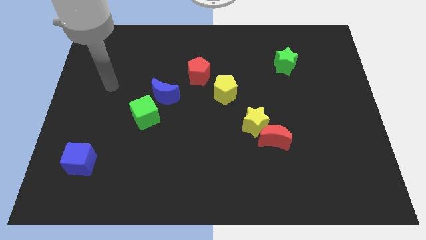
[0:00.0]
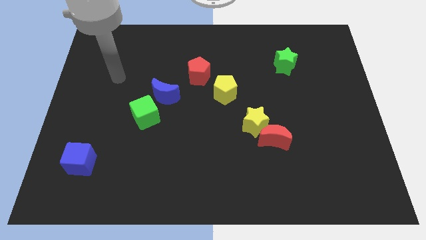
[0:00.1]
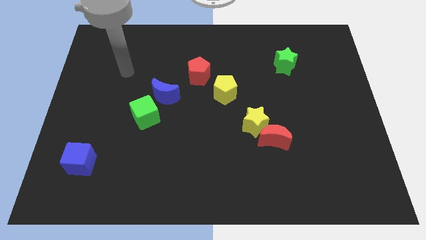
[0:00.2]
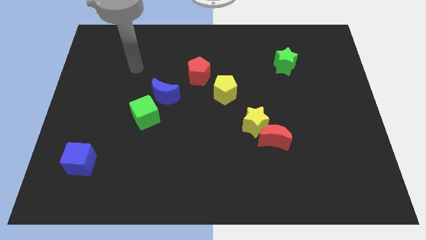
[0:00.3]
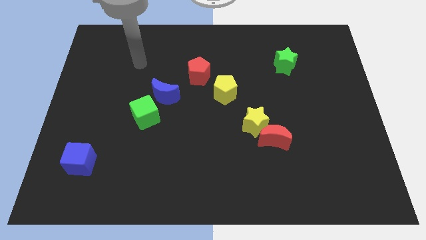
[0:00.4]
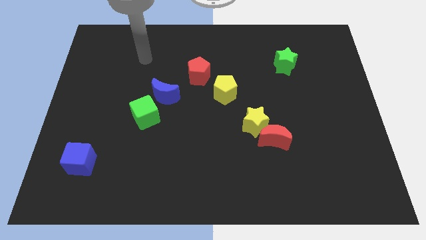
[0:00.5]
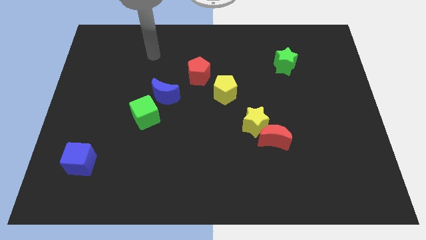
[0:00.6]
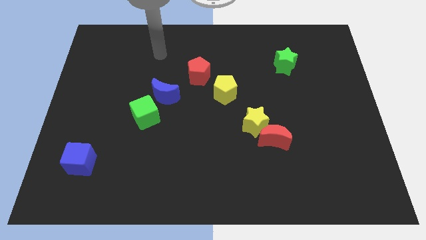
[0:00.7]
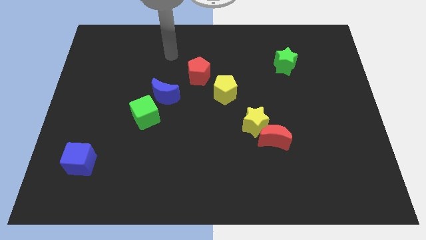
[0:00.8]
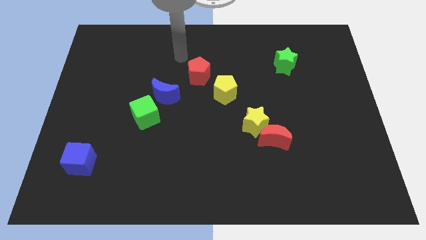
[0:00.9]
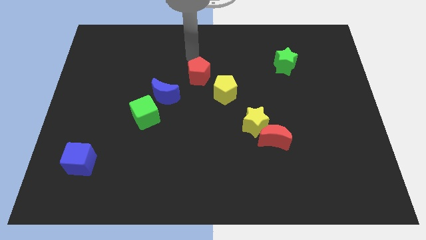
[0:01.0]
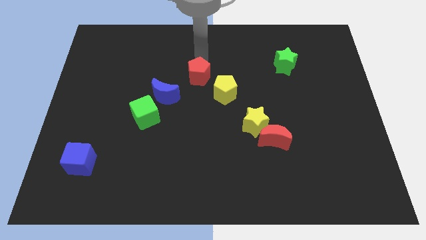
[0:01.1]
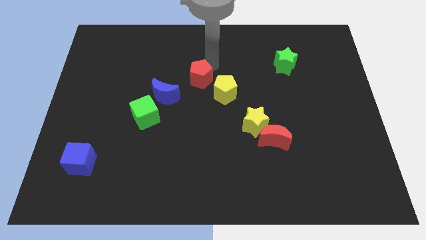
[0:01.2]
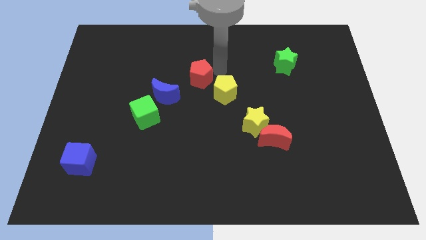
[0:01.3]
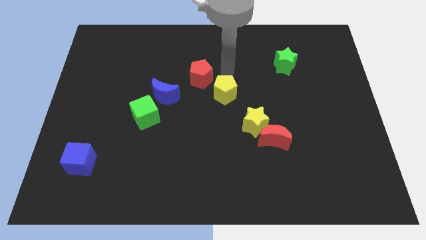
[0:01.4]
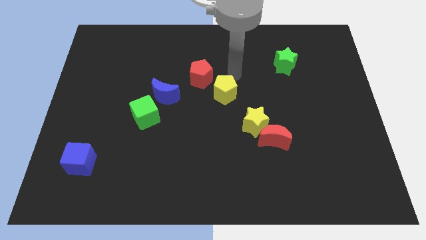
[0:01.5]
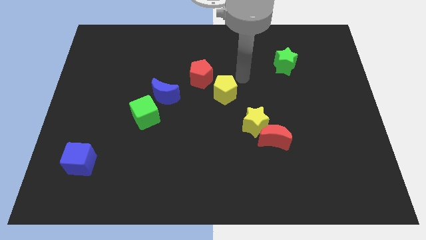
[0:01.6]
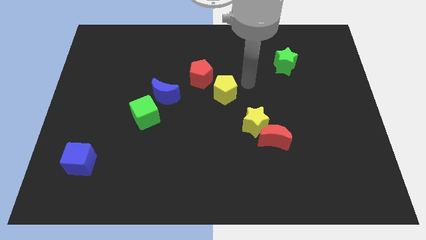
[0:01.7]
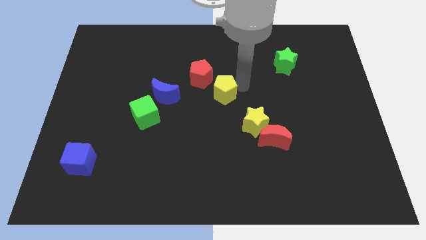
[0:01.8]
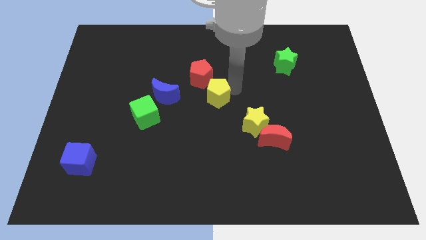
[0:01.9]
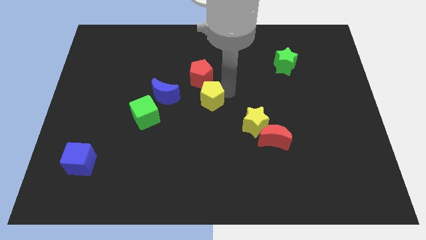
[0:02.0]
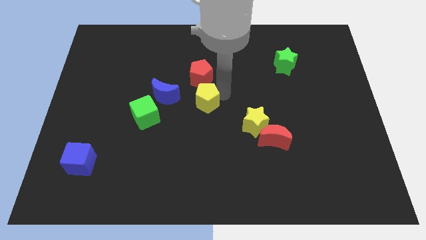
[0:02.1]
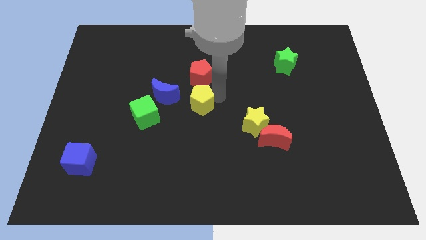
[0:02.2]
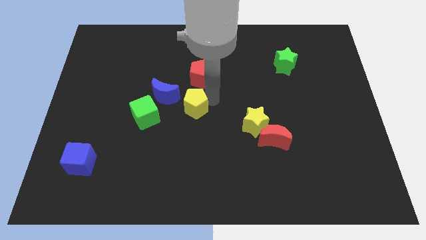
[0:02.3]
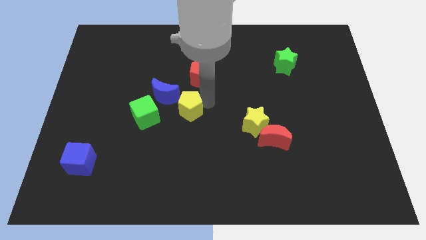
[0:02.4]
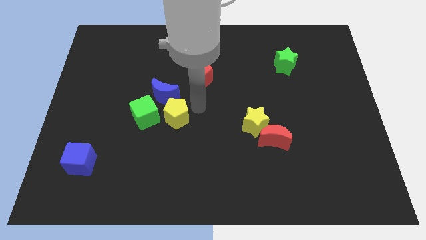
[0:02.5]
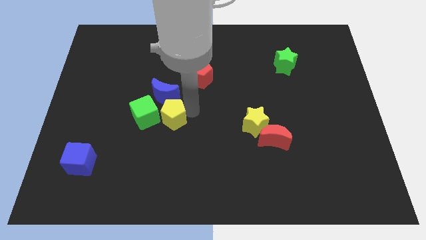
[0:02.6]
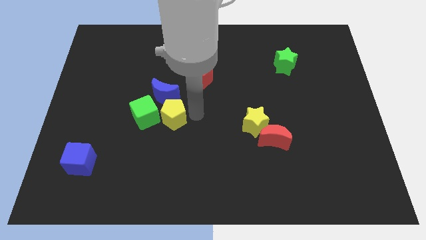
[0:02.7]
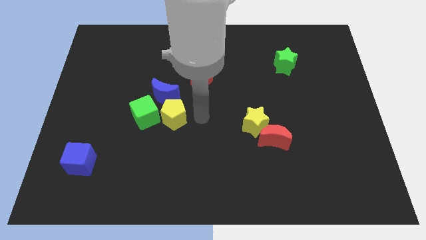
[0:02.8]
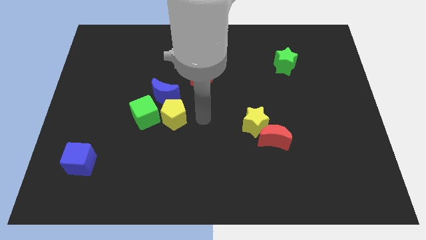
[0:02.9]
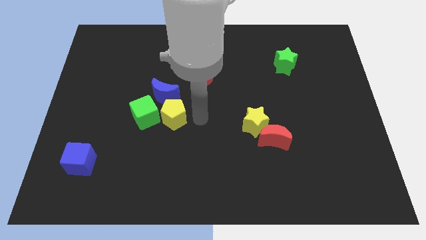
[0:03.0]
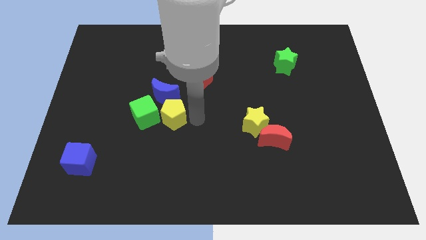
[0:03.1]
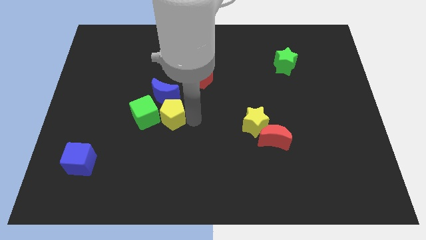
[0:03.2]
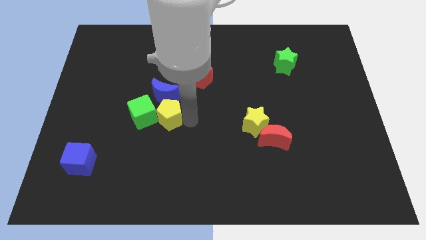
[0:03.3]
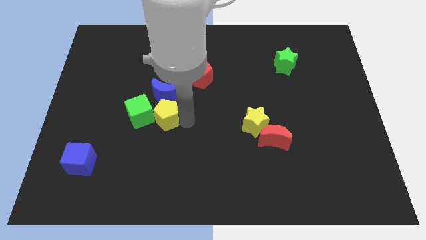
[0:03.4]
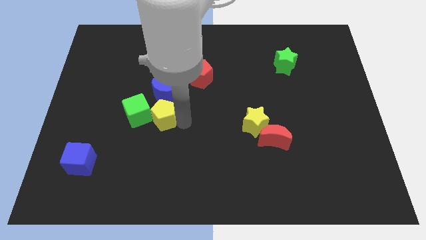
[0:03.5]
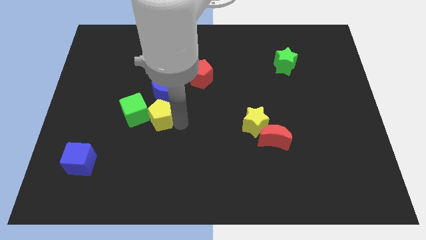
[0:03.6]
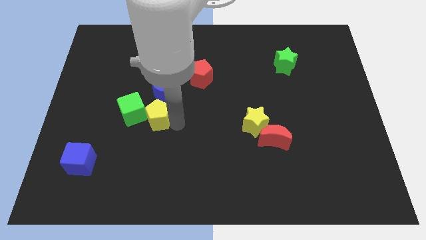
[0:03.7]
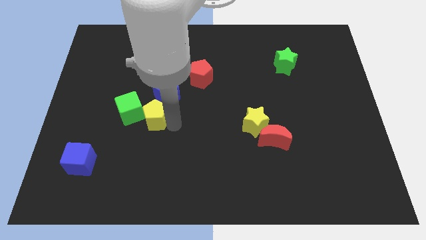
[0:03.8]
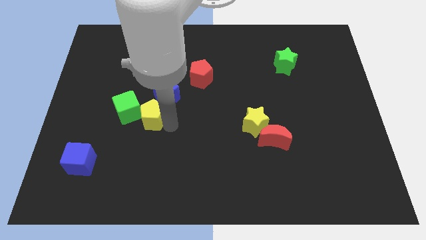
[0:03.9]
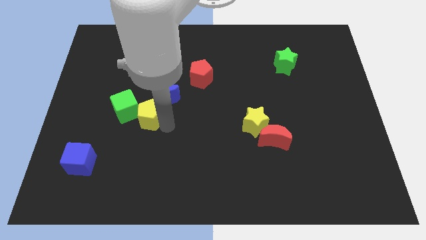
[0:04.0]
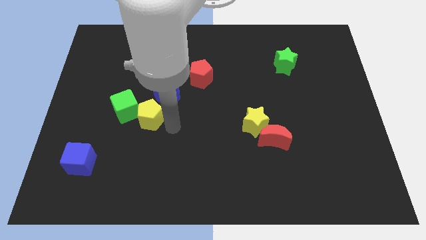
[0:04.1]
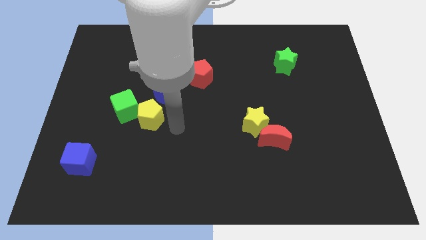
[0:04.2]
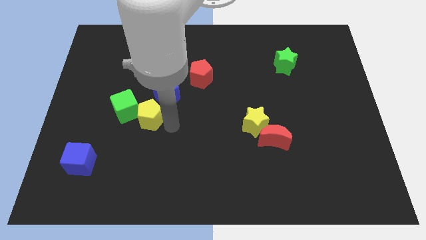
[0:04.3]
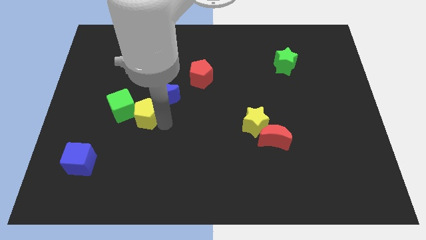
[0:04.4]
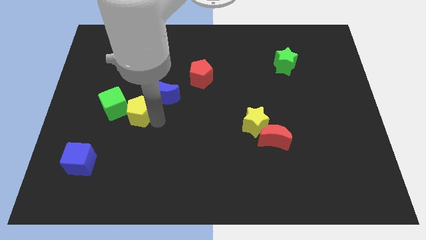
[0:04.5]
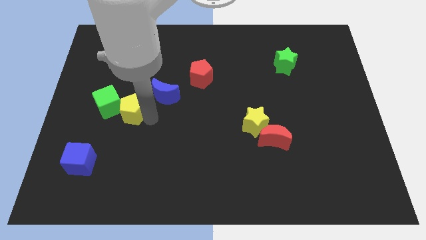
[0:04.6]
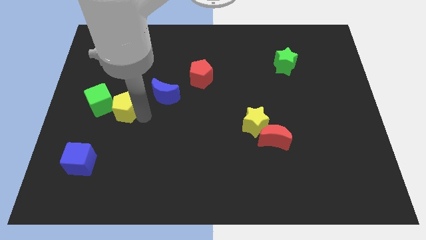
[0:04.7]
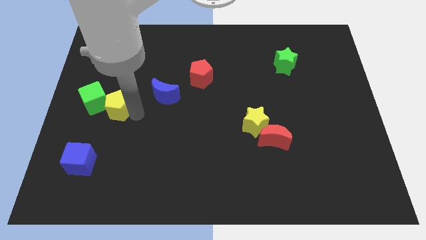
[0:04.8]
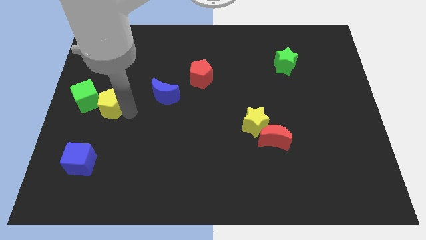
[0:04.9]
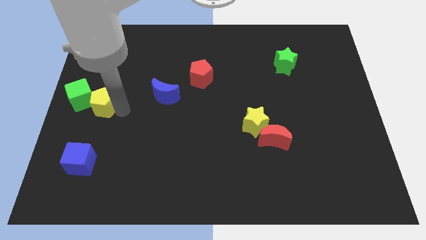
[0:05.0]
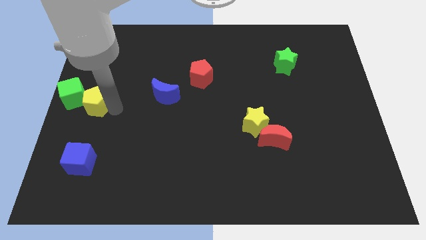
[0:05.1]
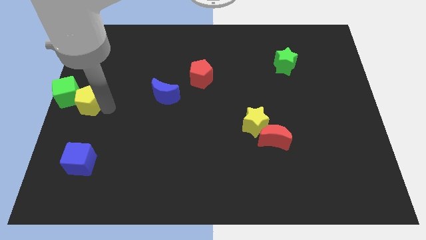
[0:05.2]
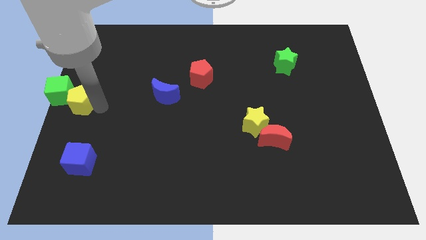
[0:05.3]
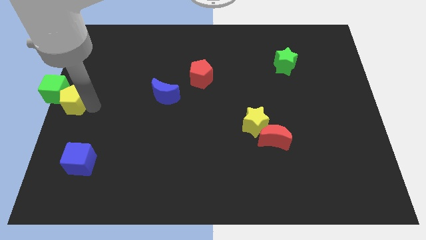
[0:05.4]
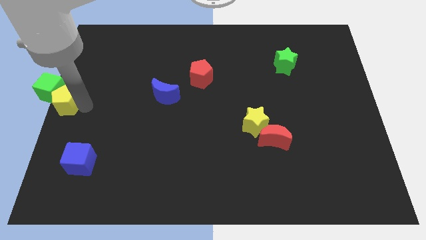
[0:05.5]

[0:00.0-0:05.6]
slide the yellow pentagon close to the green cube

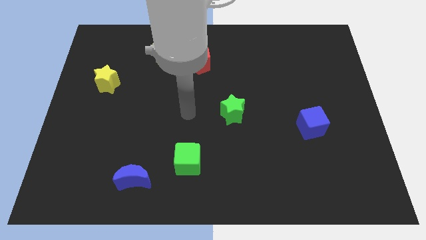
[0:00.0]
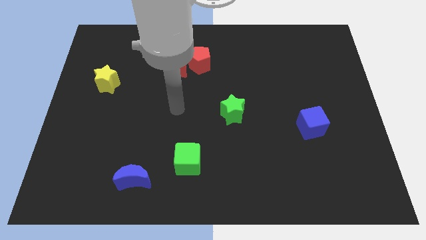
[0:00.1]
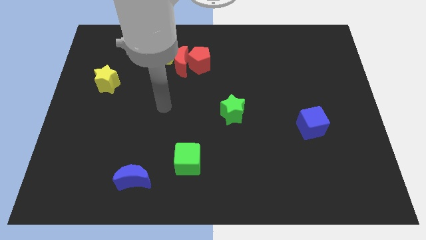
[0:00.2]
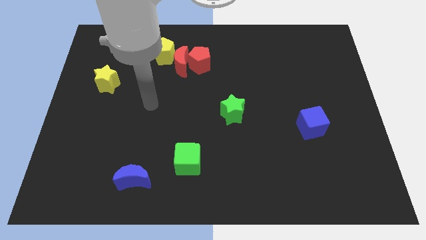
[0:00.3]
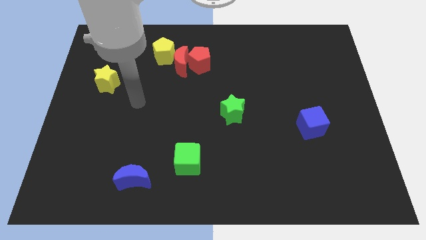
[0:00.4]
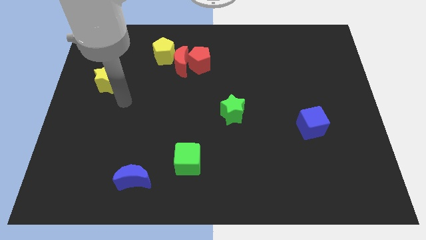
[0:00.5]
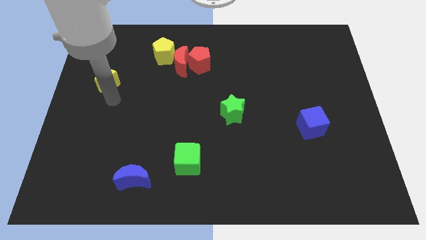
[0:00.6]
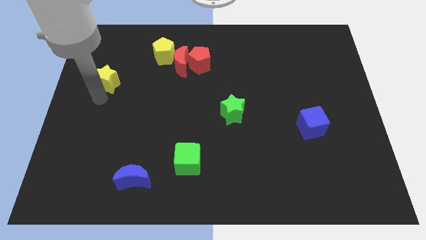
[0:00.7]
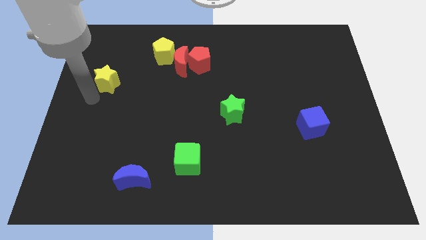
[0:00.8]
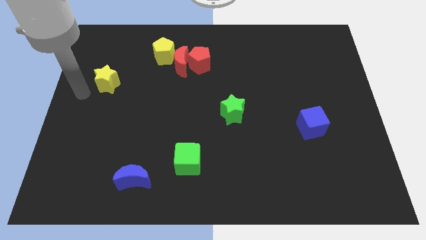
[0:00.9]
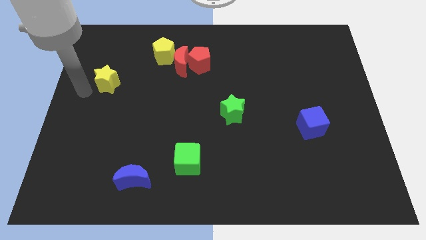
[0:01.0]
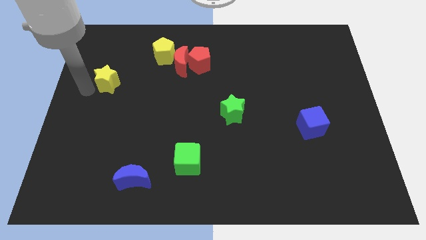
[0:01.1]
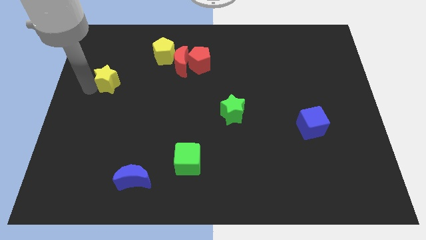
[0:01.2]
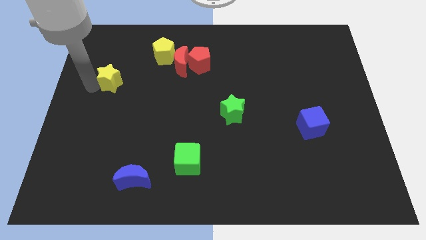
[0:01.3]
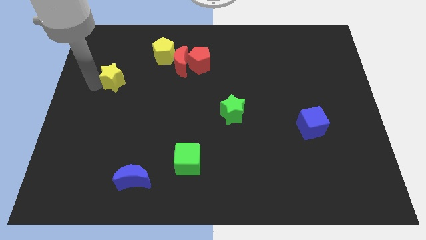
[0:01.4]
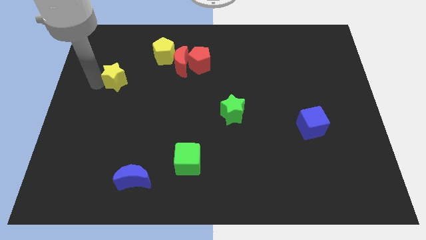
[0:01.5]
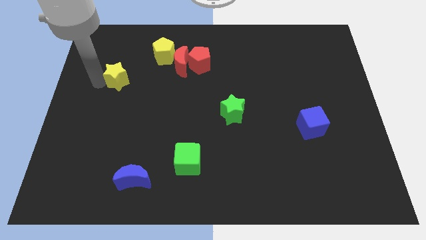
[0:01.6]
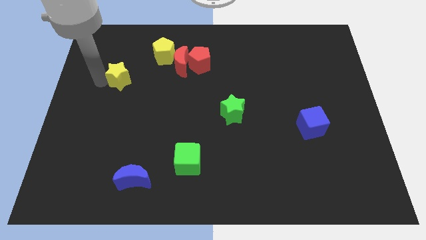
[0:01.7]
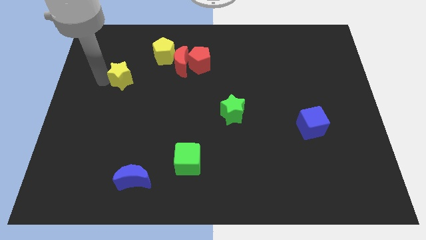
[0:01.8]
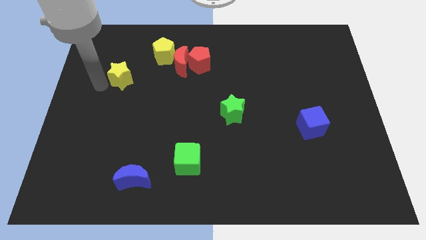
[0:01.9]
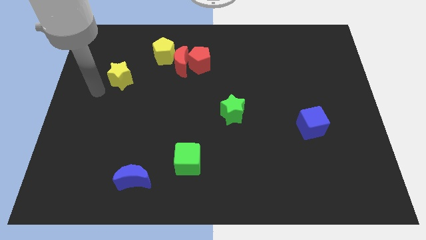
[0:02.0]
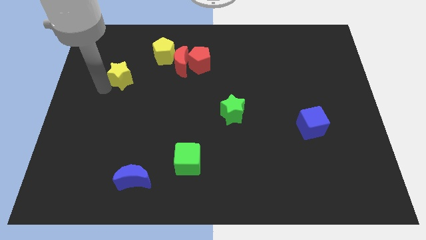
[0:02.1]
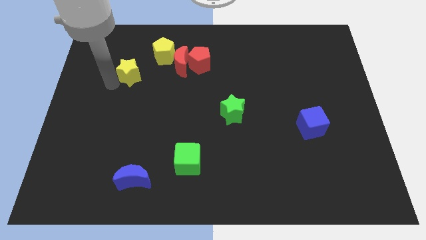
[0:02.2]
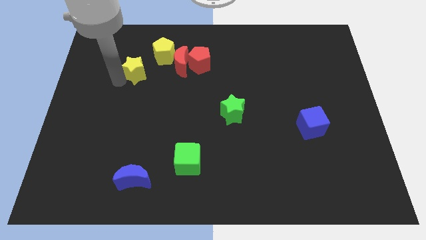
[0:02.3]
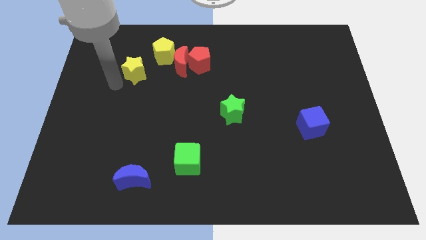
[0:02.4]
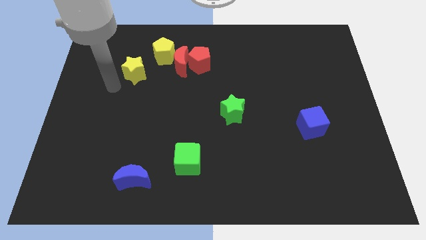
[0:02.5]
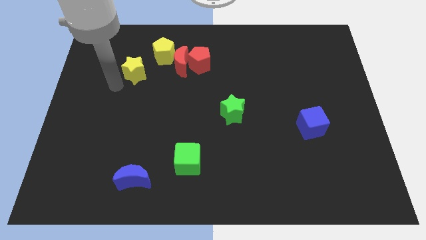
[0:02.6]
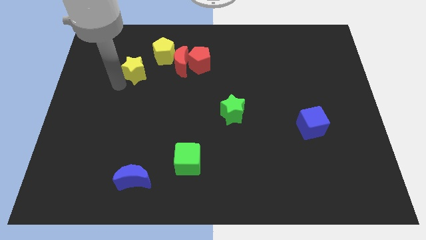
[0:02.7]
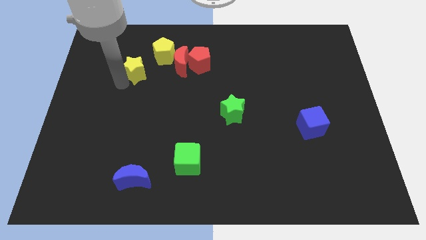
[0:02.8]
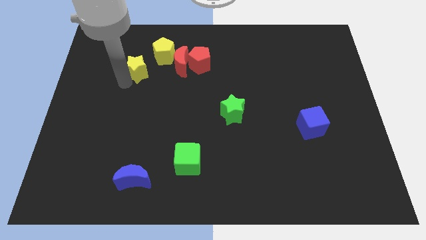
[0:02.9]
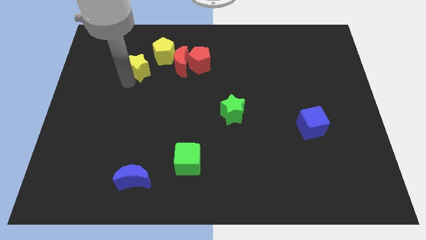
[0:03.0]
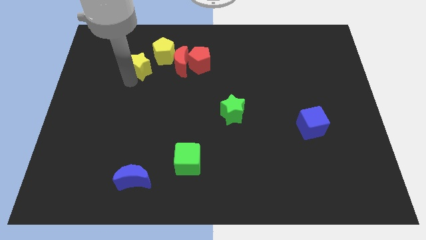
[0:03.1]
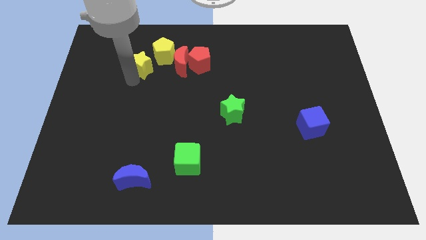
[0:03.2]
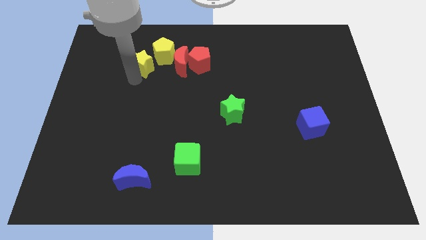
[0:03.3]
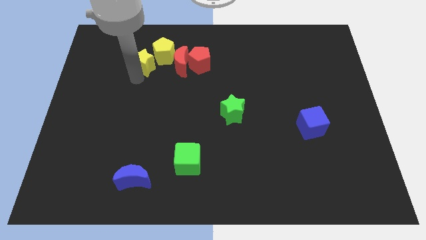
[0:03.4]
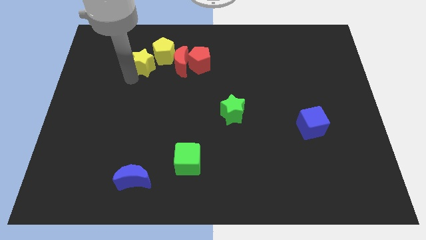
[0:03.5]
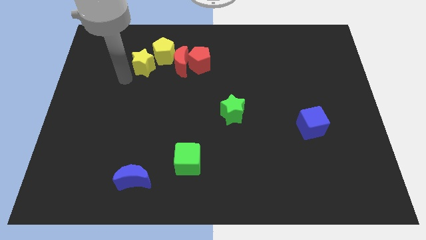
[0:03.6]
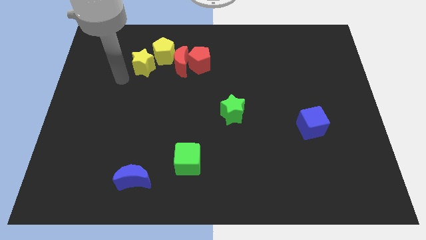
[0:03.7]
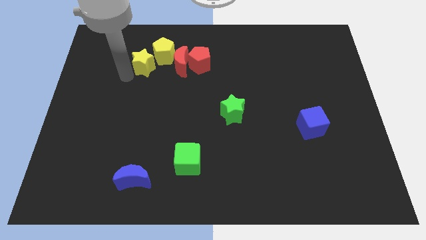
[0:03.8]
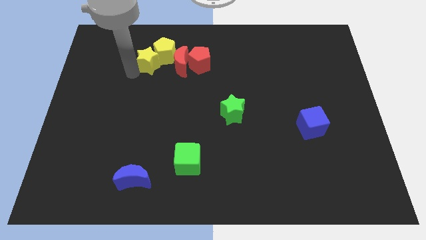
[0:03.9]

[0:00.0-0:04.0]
push the yellow star to the yellow pentagon
